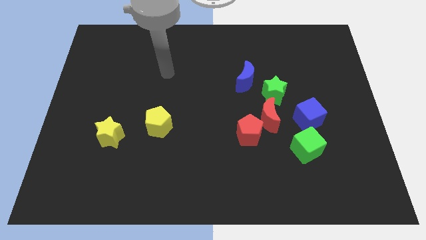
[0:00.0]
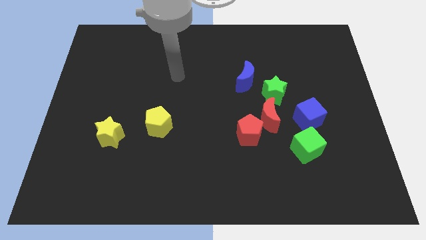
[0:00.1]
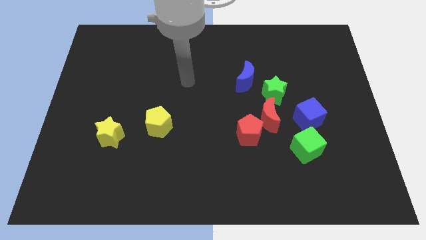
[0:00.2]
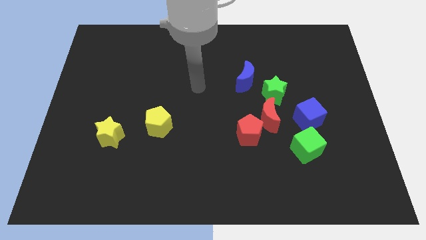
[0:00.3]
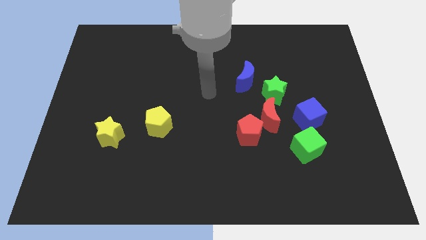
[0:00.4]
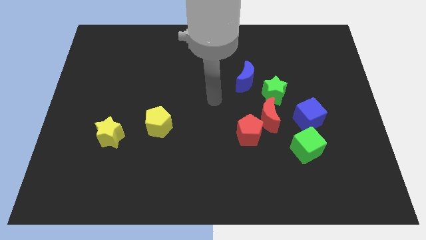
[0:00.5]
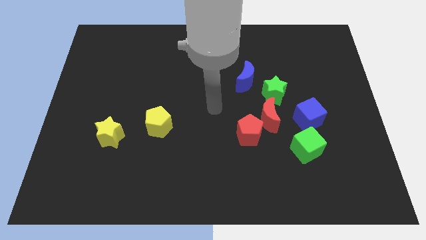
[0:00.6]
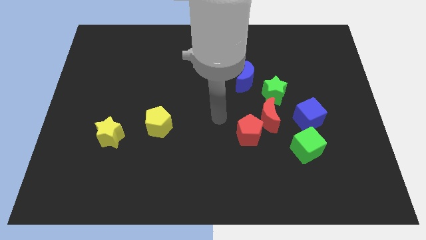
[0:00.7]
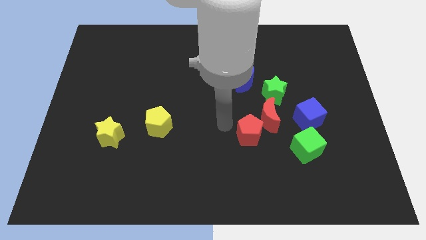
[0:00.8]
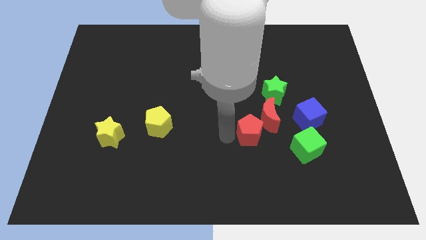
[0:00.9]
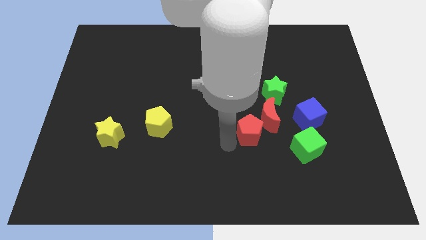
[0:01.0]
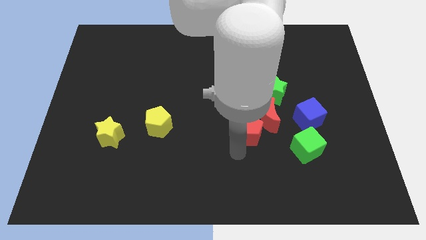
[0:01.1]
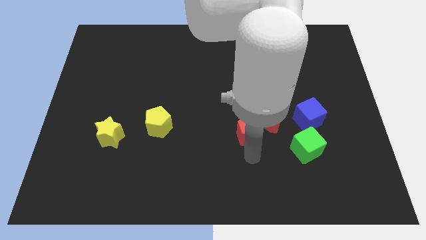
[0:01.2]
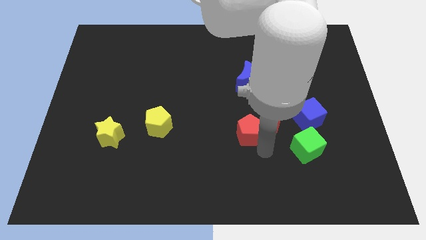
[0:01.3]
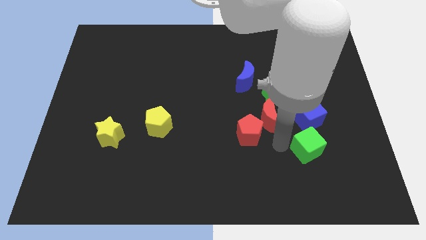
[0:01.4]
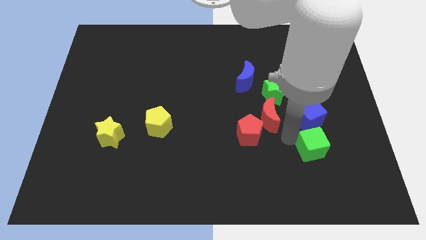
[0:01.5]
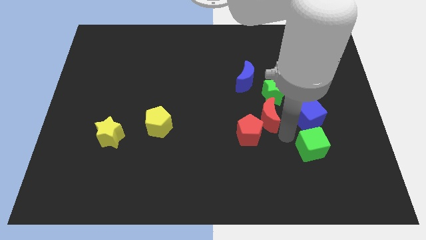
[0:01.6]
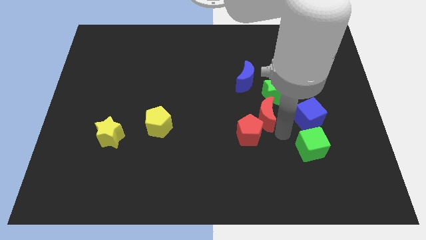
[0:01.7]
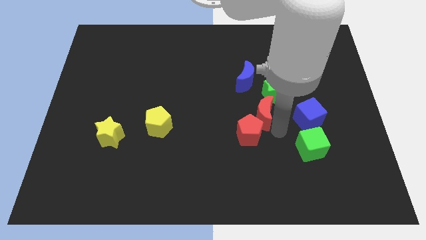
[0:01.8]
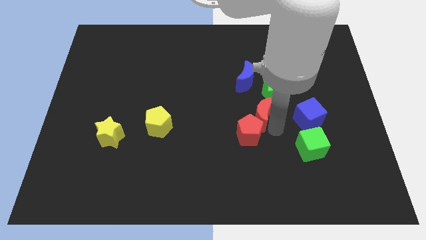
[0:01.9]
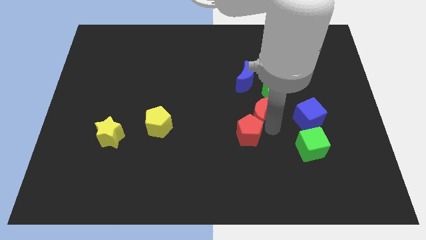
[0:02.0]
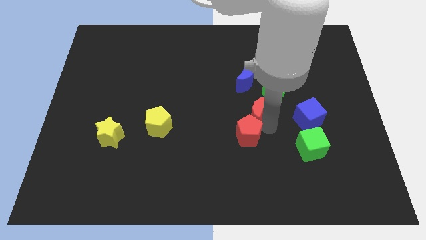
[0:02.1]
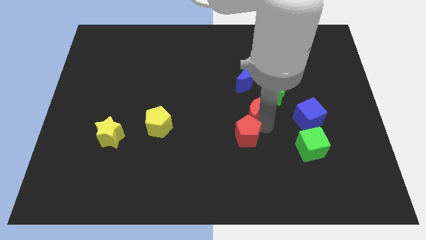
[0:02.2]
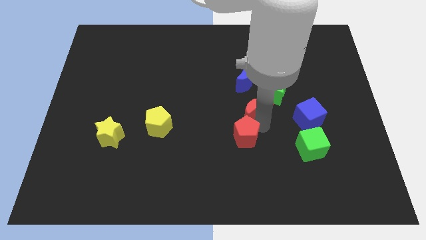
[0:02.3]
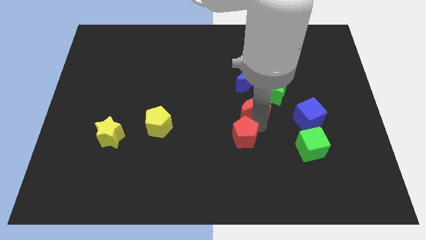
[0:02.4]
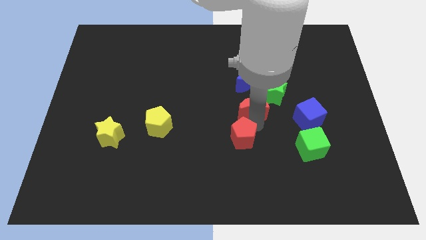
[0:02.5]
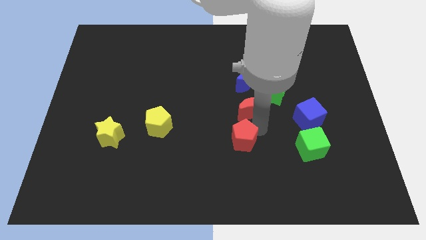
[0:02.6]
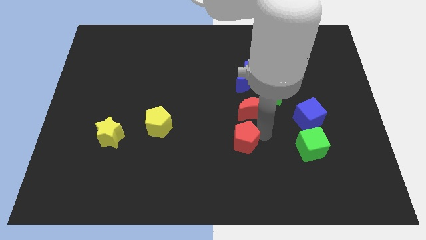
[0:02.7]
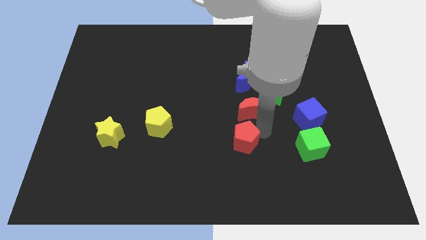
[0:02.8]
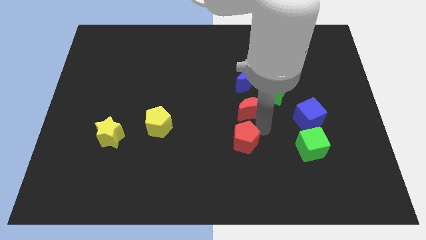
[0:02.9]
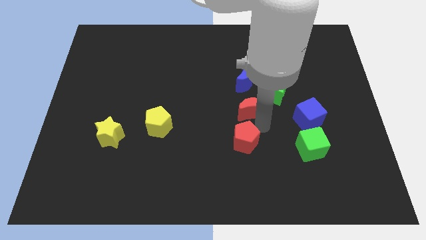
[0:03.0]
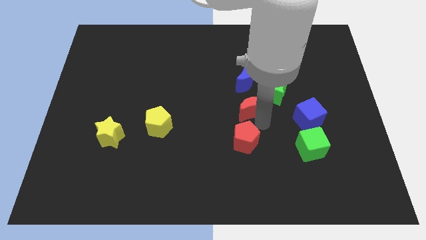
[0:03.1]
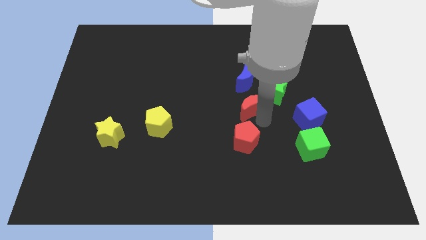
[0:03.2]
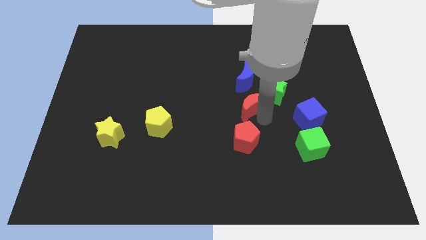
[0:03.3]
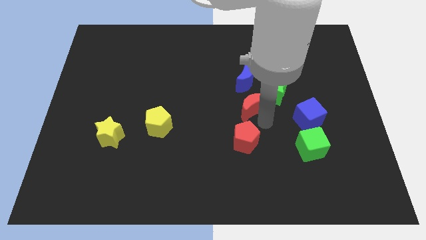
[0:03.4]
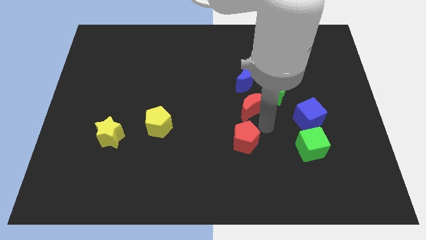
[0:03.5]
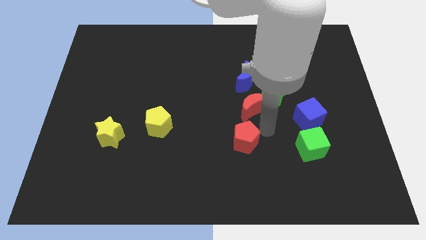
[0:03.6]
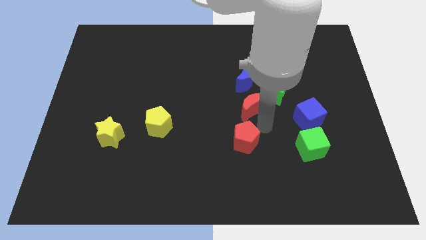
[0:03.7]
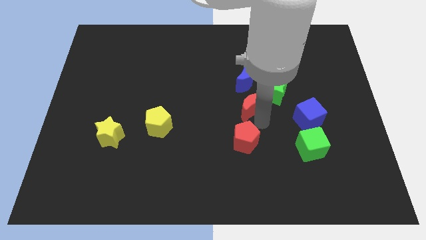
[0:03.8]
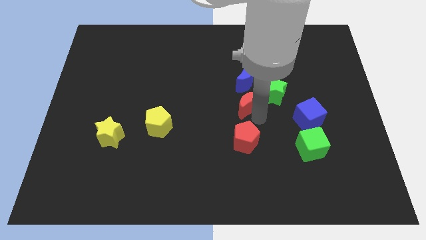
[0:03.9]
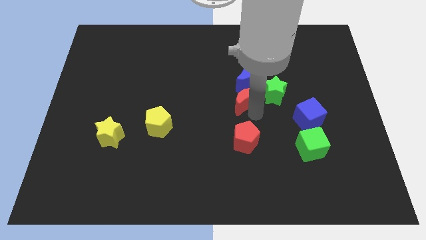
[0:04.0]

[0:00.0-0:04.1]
slide the red moon a bit up and then left

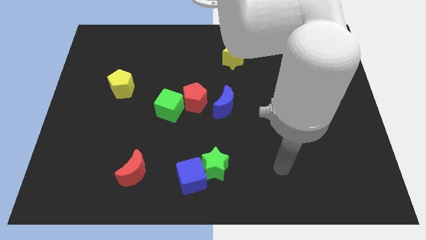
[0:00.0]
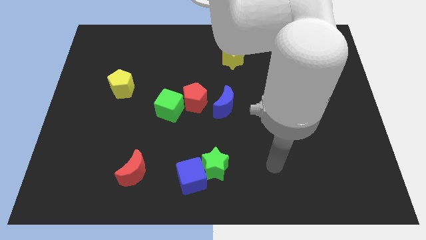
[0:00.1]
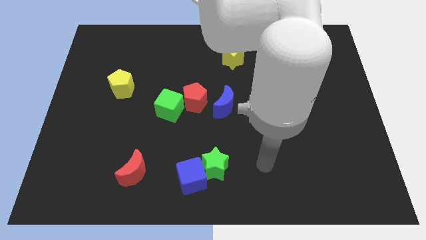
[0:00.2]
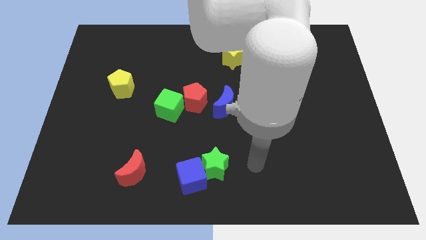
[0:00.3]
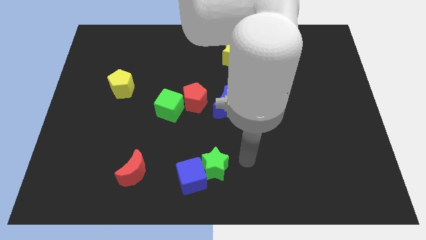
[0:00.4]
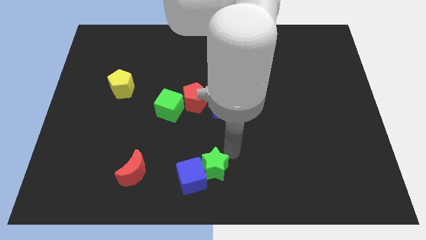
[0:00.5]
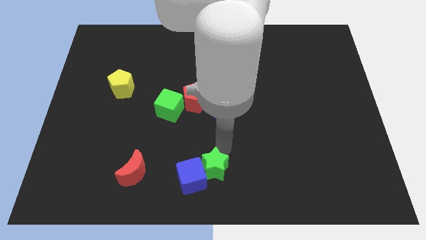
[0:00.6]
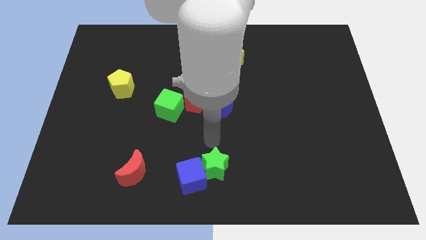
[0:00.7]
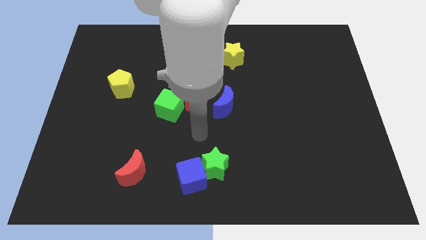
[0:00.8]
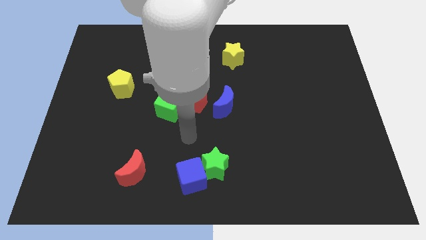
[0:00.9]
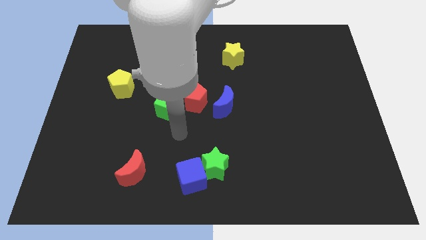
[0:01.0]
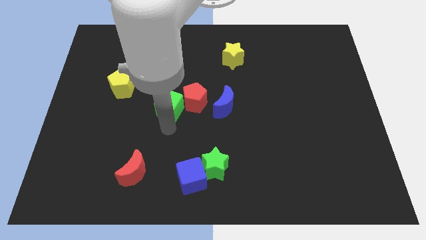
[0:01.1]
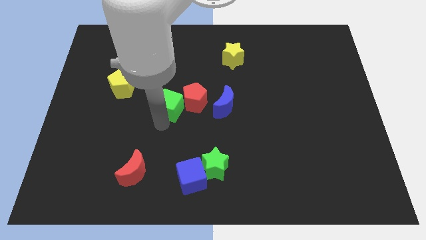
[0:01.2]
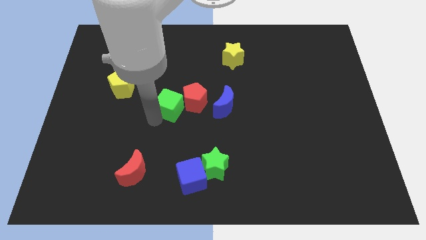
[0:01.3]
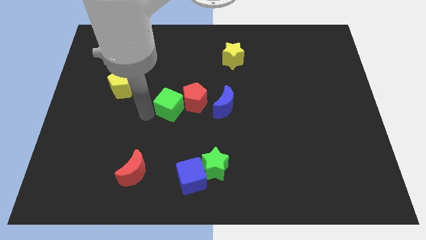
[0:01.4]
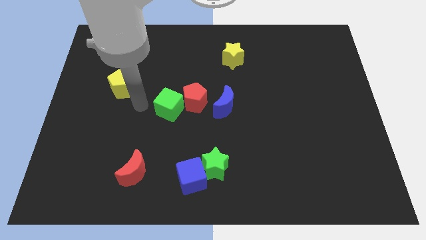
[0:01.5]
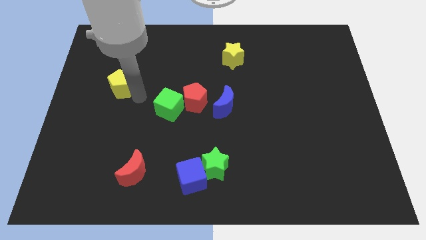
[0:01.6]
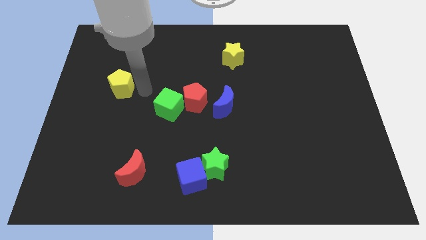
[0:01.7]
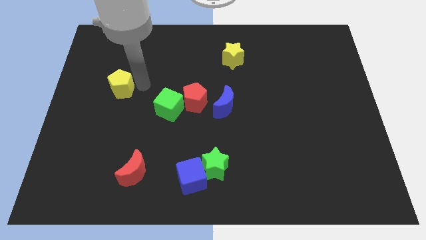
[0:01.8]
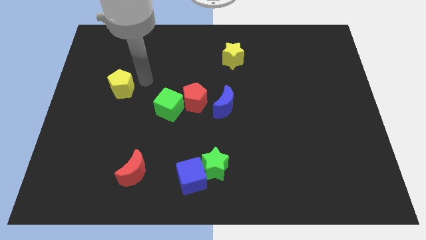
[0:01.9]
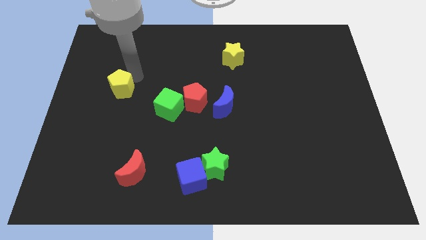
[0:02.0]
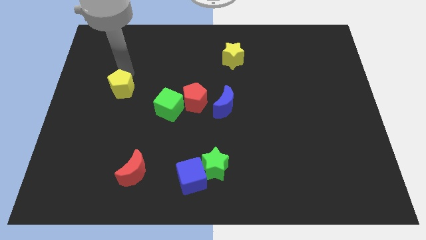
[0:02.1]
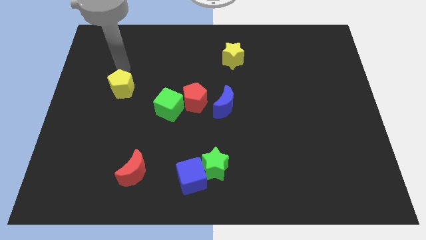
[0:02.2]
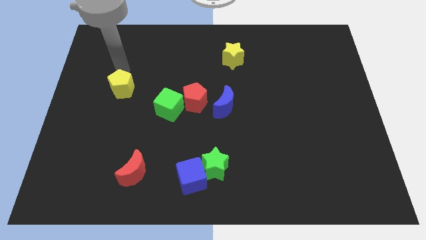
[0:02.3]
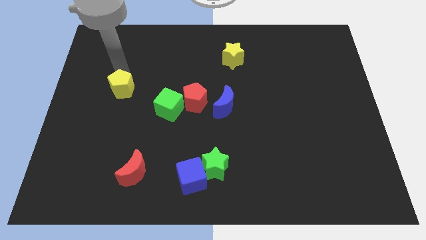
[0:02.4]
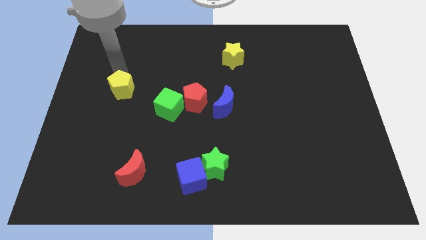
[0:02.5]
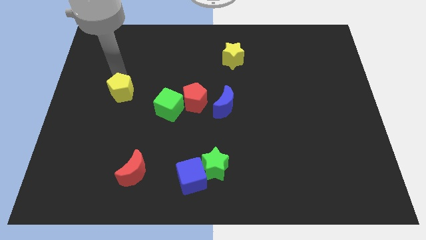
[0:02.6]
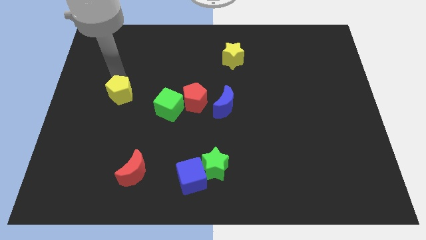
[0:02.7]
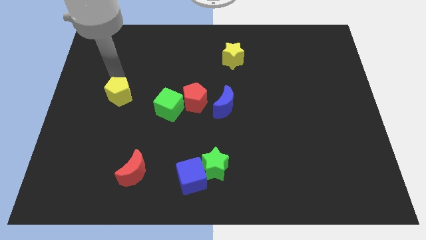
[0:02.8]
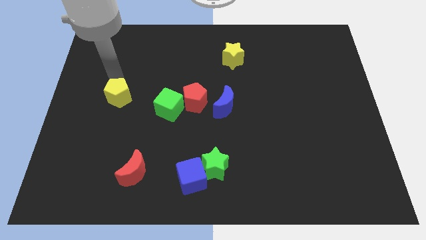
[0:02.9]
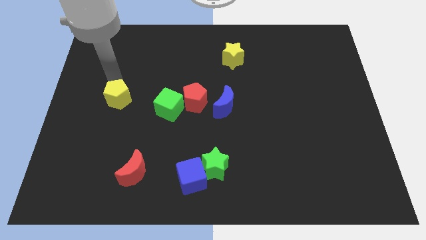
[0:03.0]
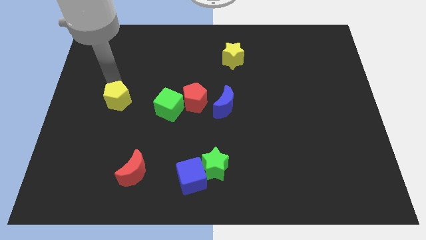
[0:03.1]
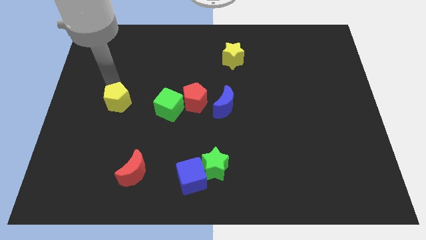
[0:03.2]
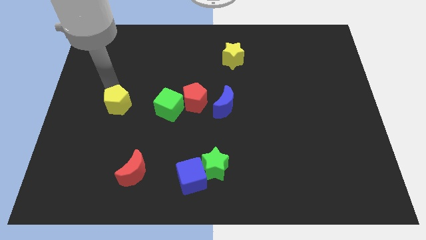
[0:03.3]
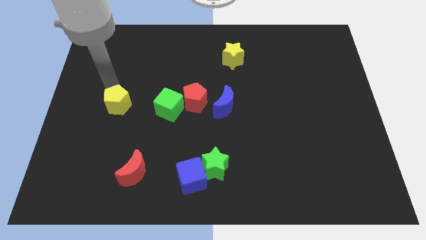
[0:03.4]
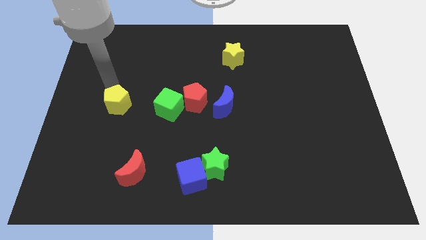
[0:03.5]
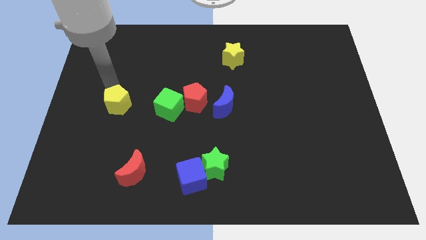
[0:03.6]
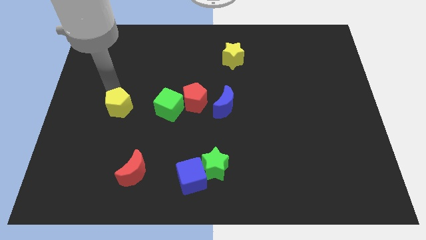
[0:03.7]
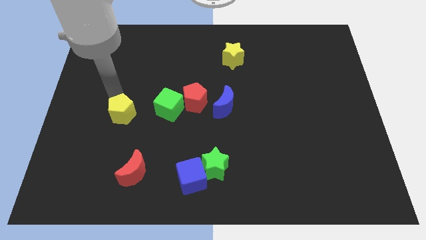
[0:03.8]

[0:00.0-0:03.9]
slightly push the yellow pentagon downwards

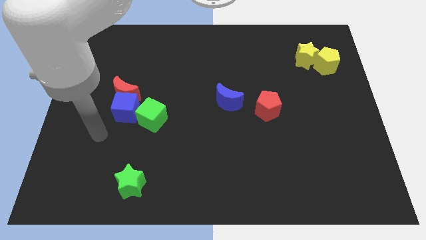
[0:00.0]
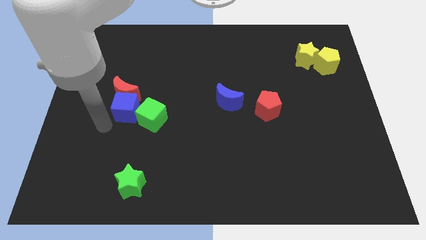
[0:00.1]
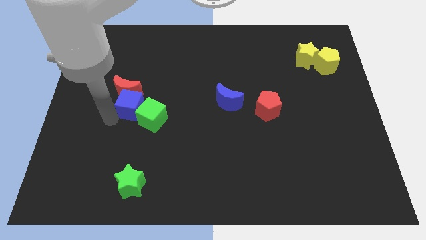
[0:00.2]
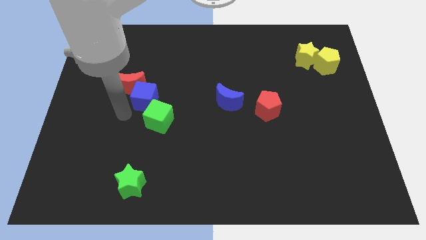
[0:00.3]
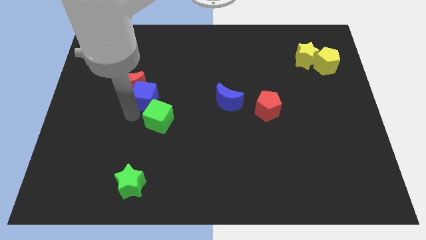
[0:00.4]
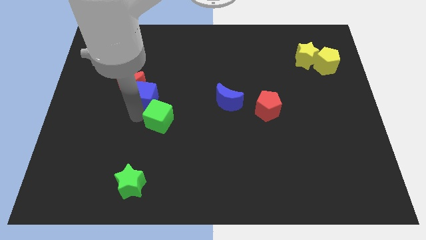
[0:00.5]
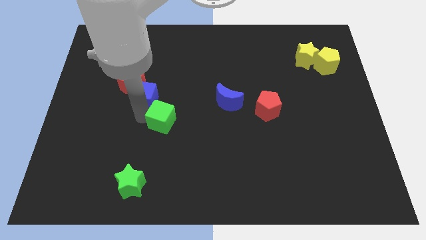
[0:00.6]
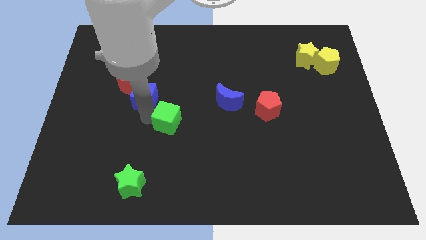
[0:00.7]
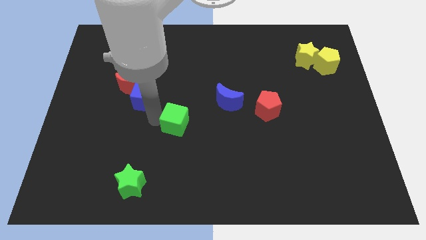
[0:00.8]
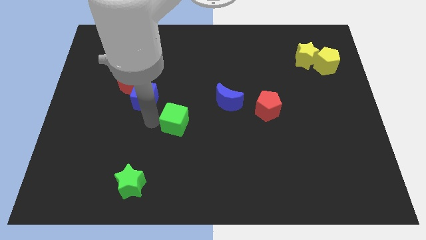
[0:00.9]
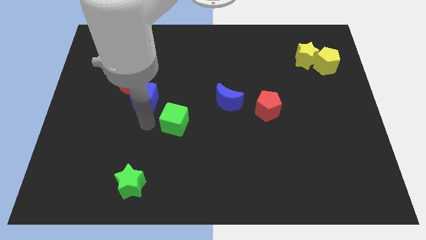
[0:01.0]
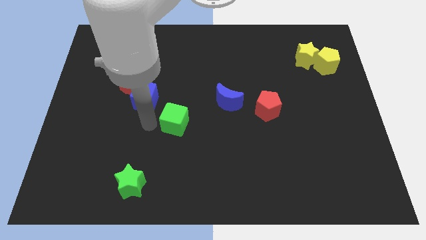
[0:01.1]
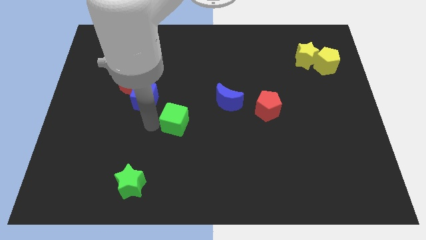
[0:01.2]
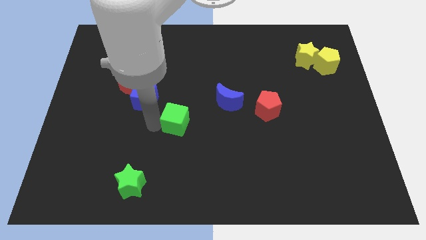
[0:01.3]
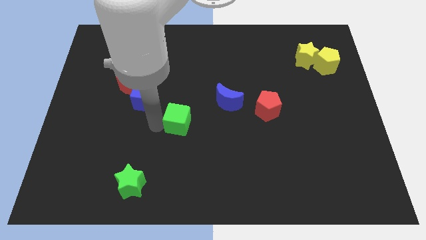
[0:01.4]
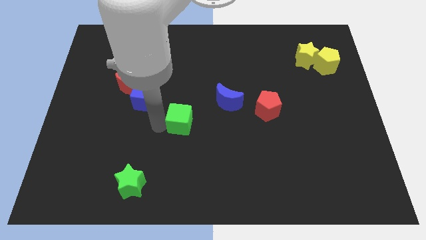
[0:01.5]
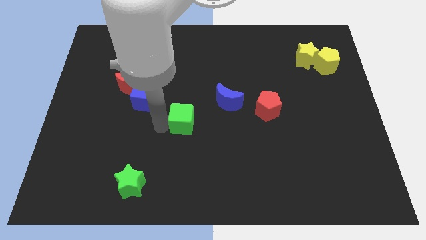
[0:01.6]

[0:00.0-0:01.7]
move the green cube a little bit right
